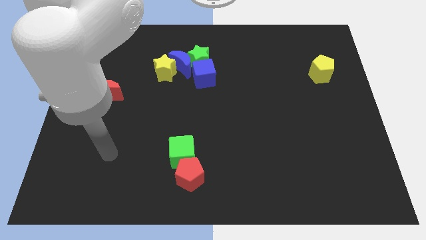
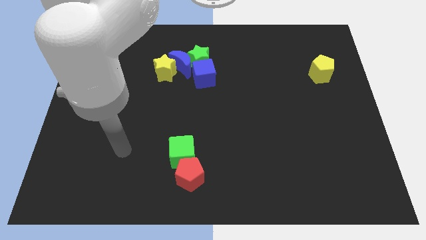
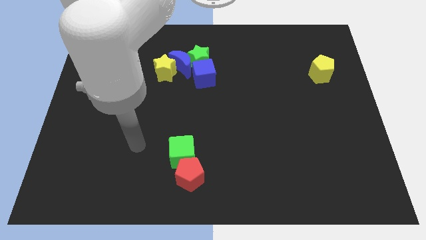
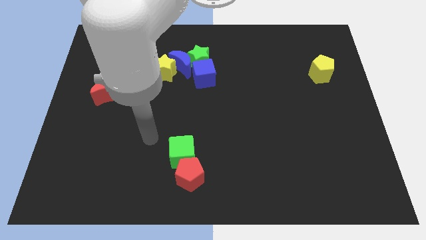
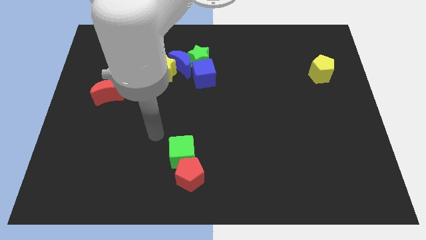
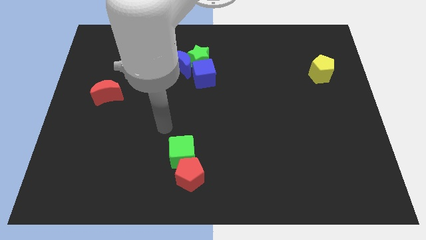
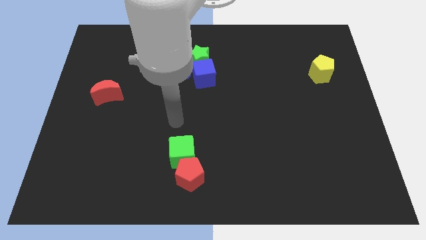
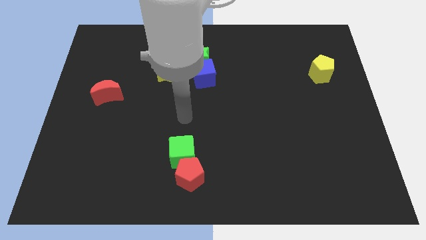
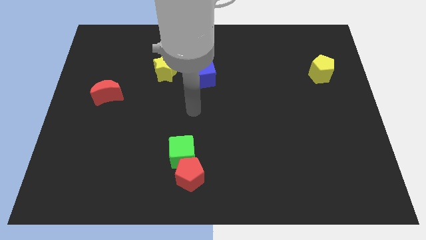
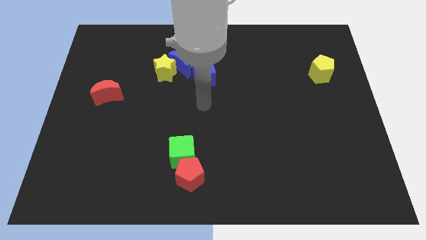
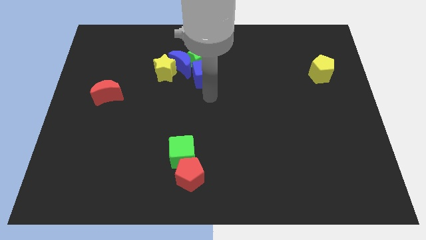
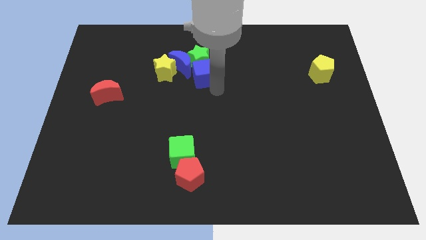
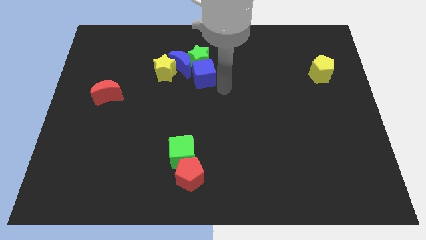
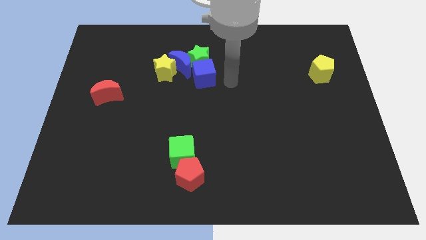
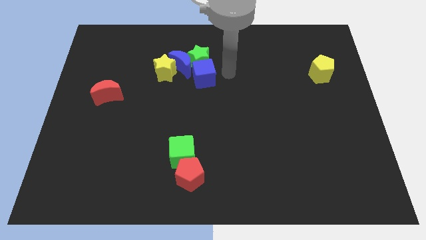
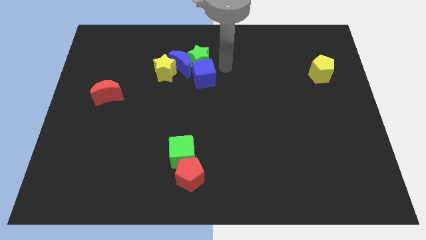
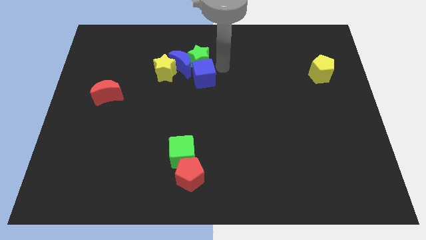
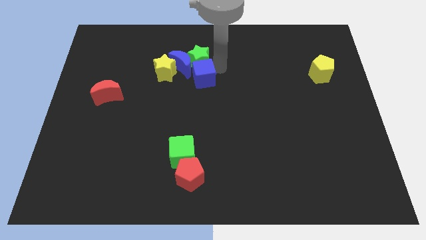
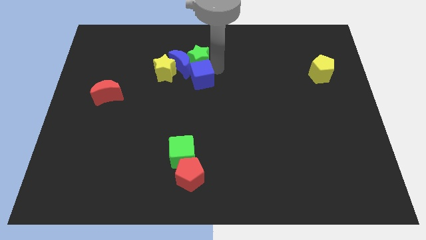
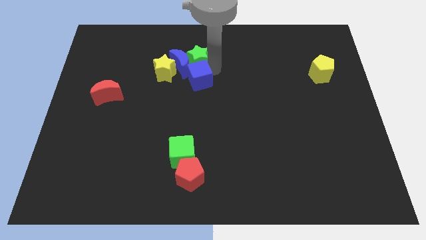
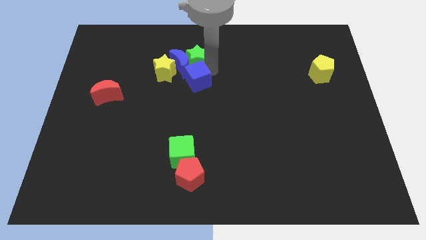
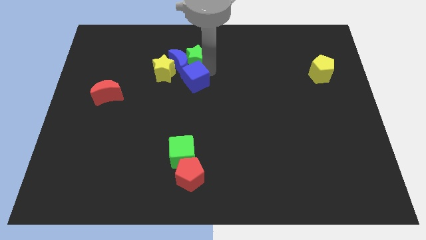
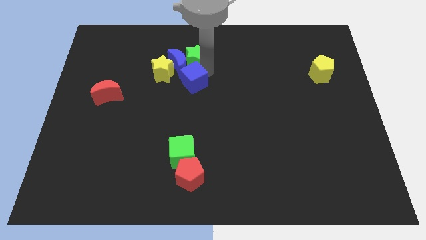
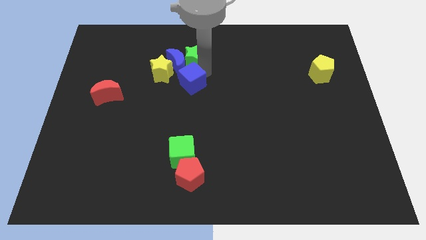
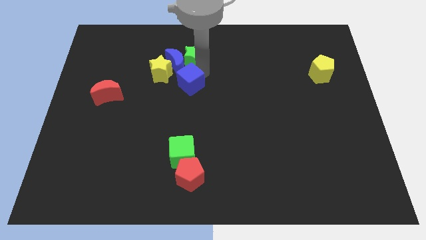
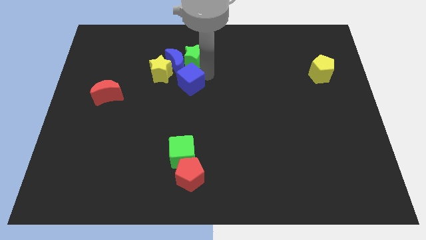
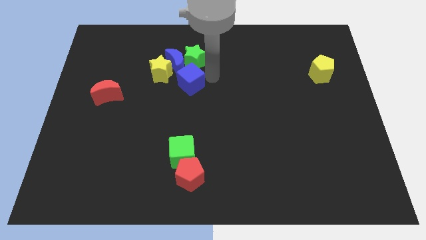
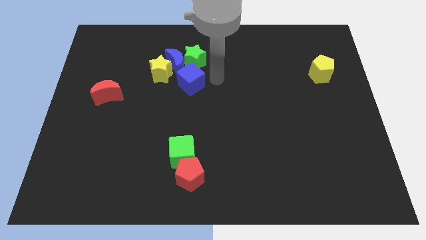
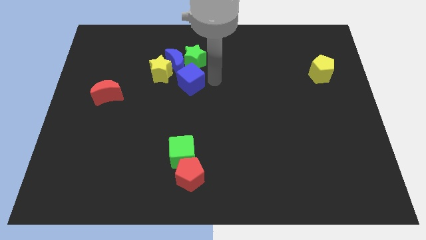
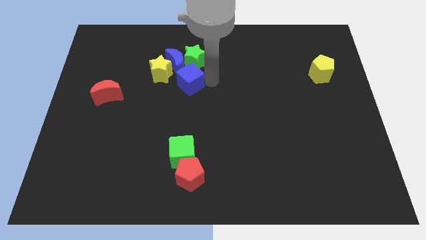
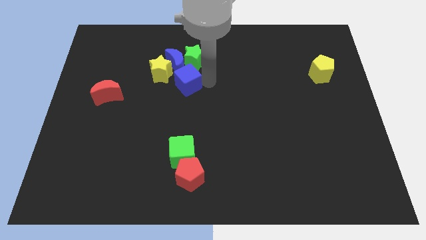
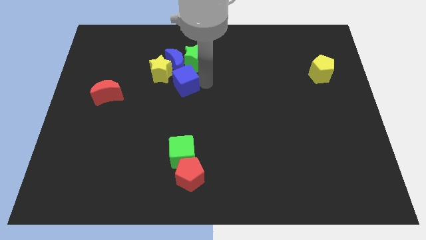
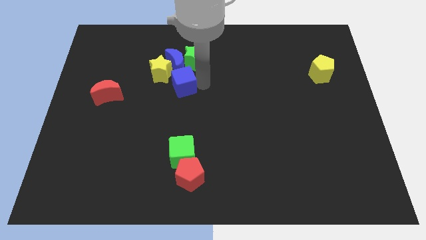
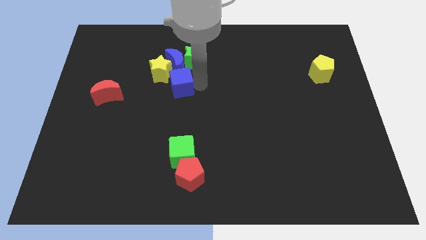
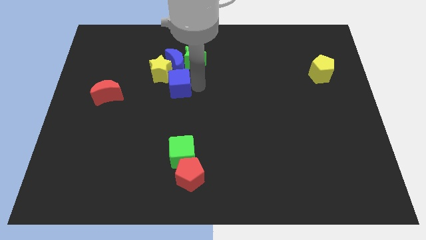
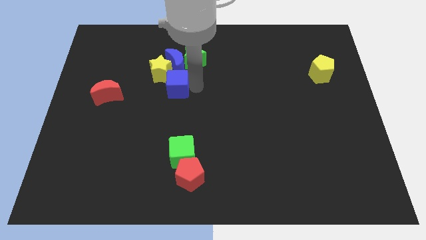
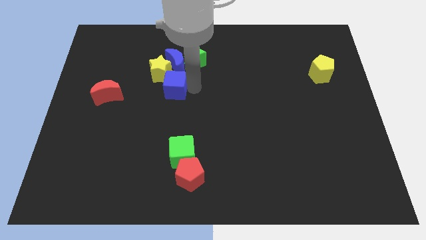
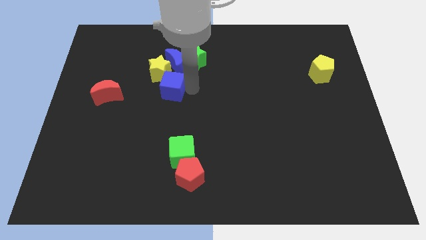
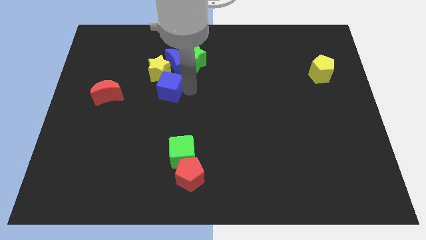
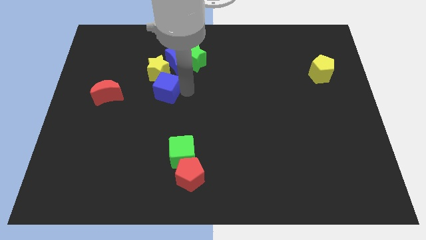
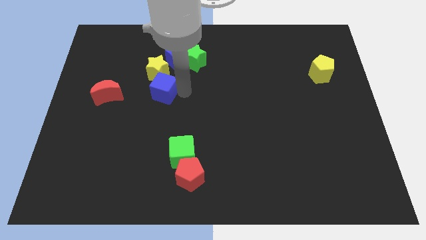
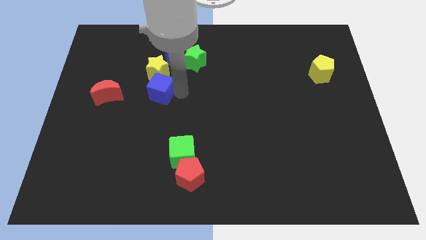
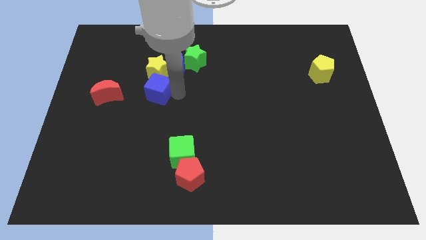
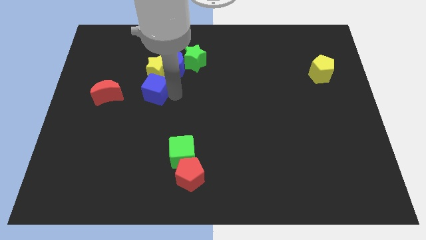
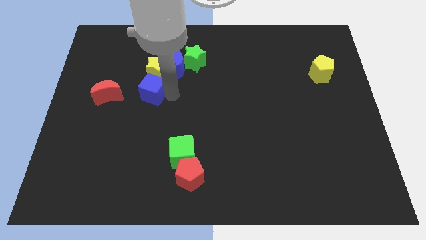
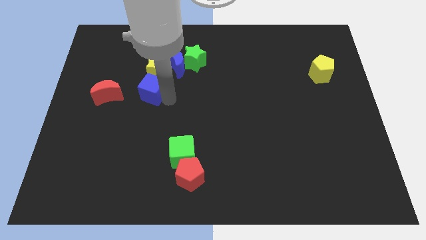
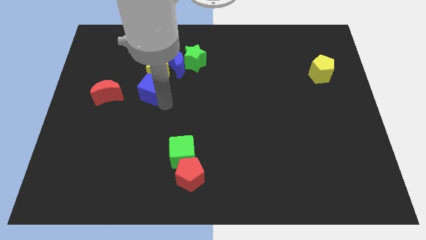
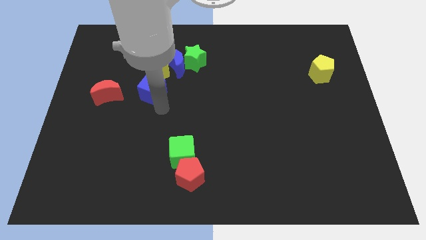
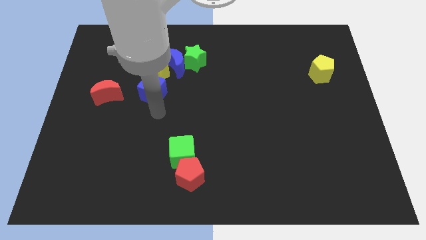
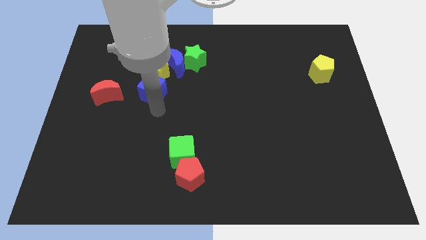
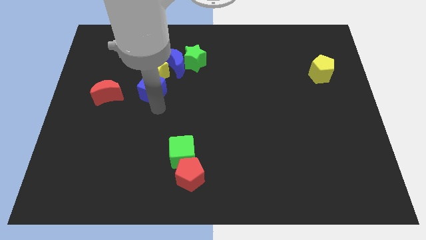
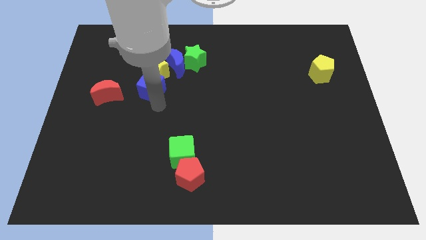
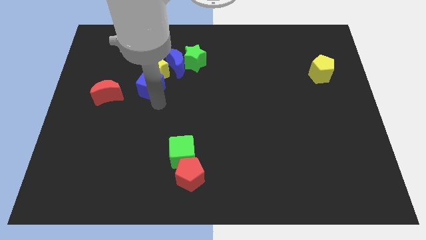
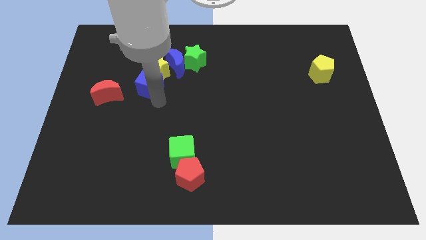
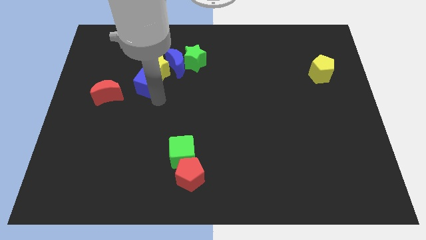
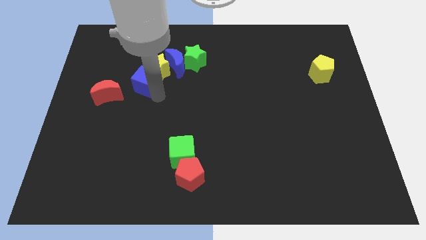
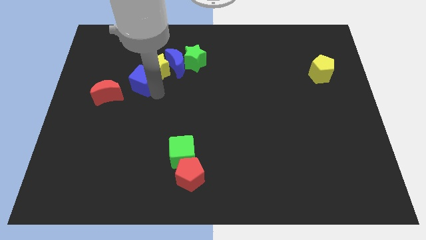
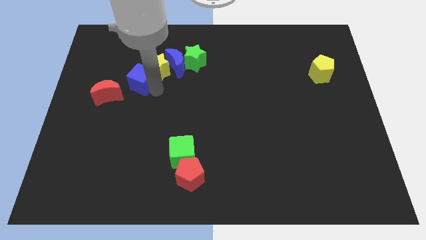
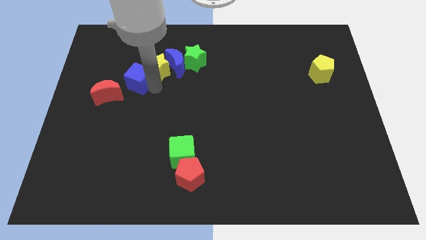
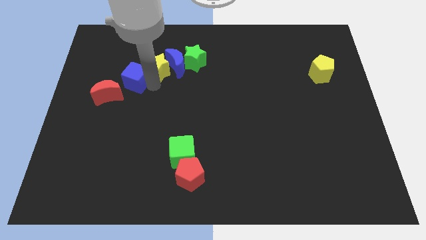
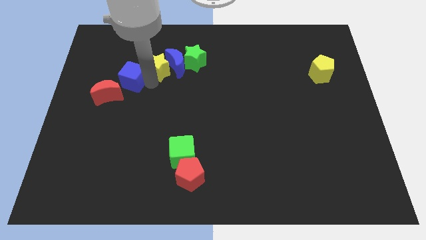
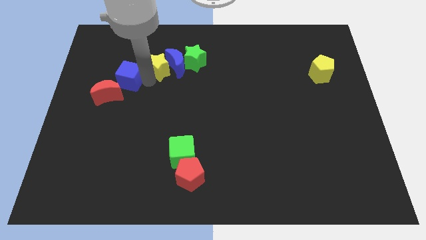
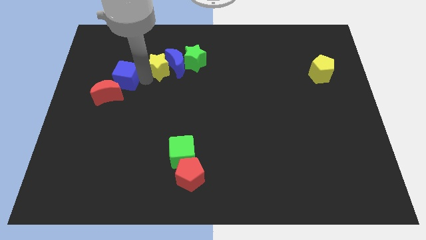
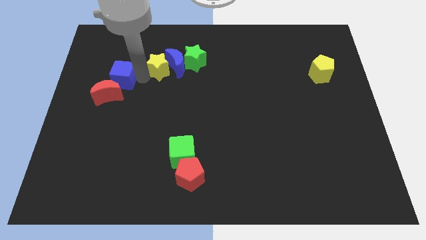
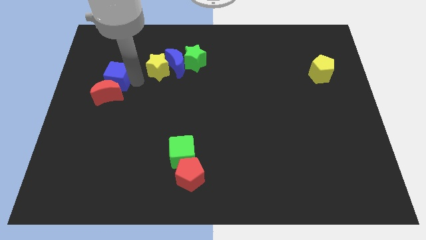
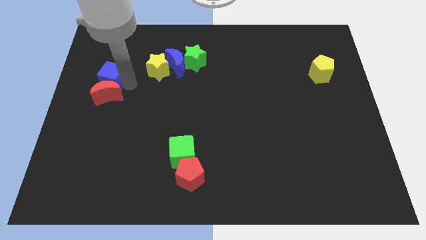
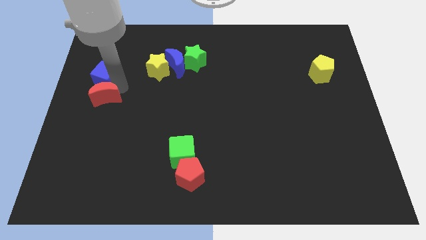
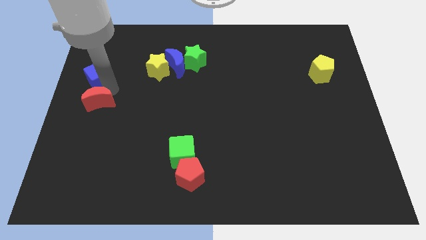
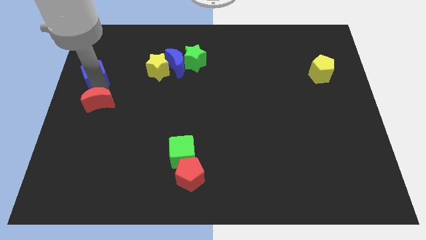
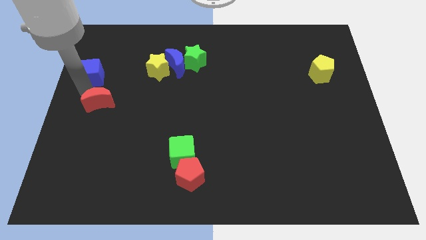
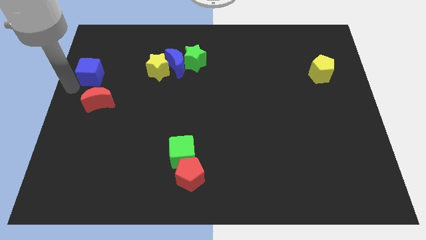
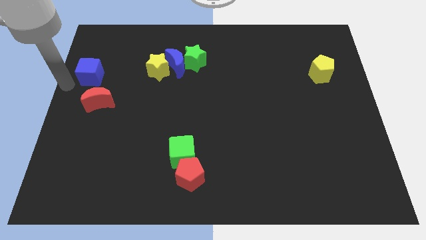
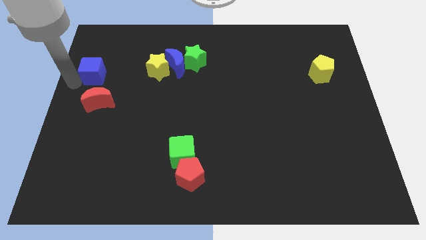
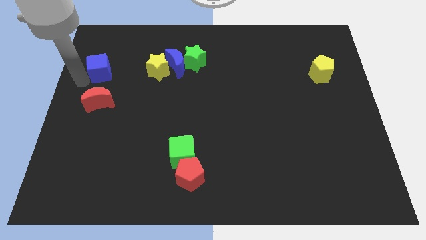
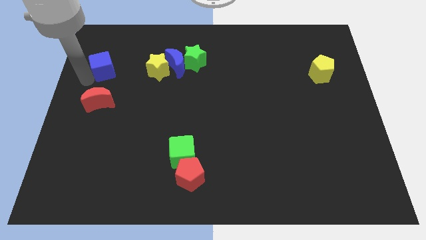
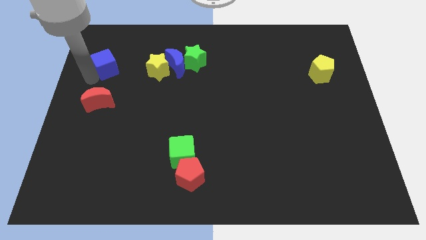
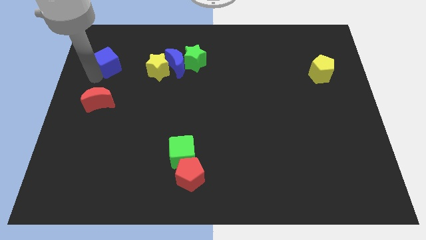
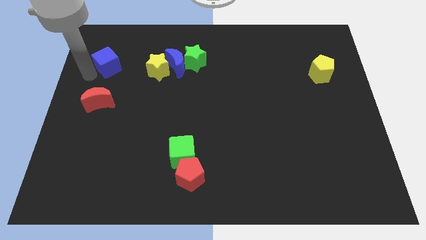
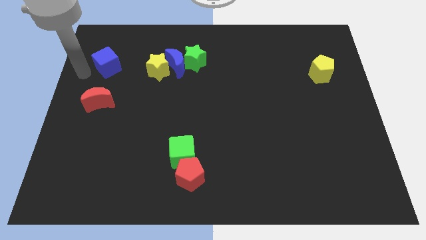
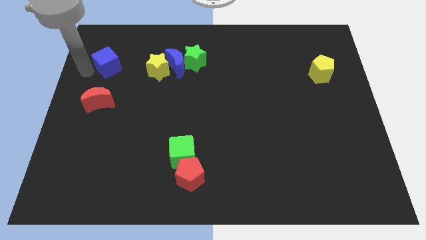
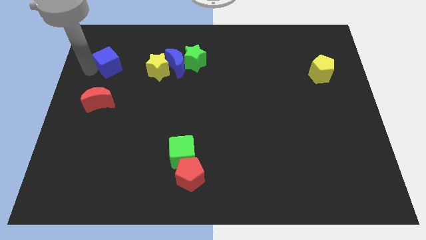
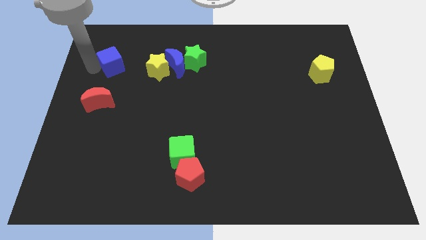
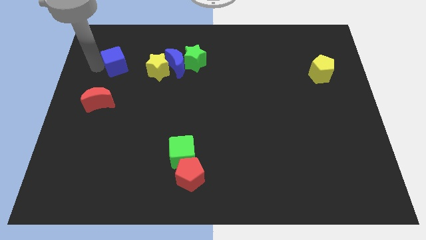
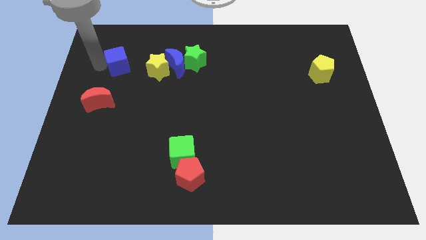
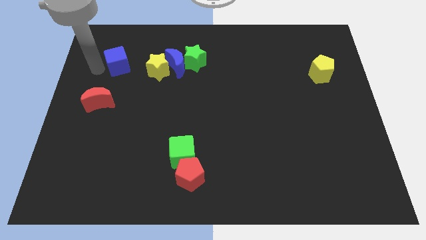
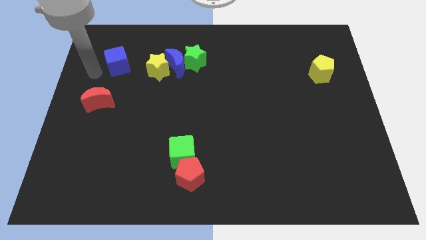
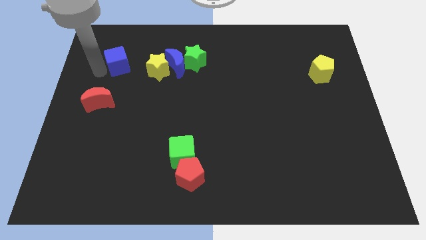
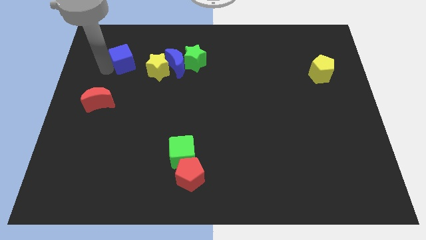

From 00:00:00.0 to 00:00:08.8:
push the blue cube to the top left of the yellow star
